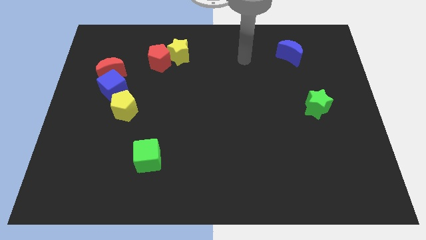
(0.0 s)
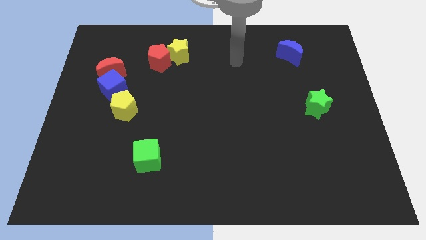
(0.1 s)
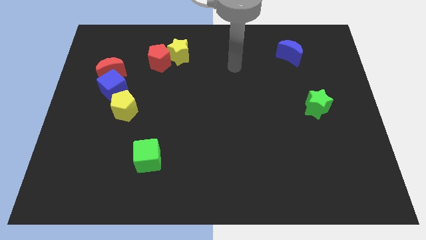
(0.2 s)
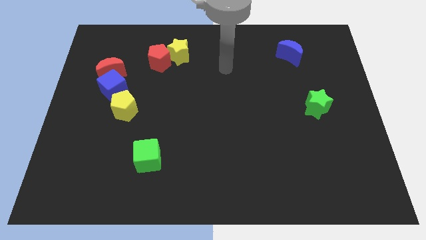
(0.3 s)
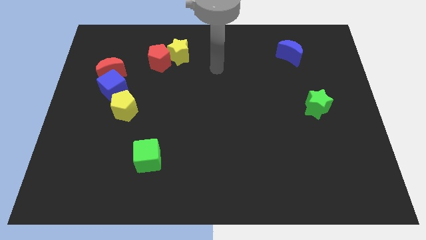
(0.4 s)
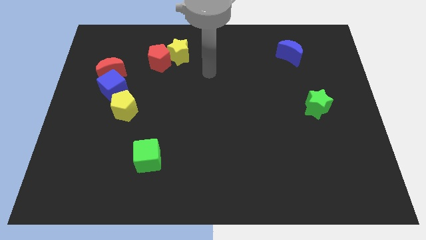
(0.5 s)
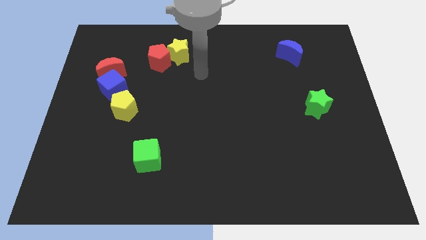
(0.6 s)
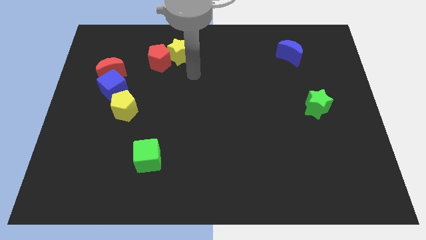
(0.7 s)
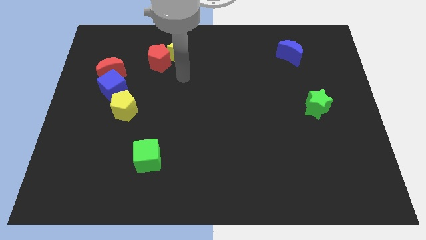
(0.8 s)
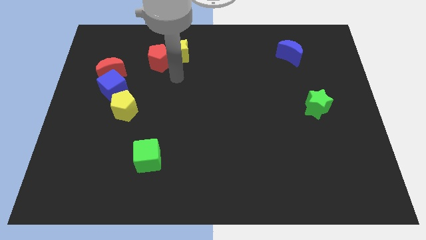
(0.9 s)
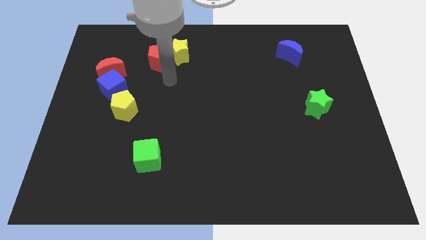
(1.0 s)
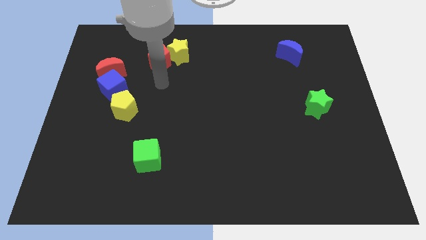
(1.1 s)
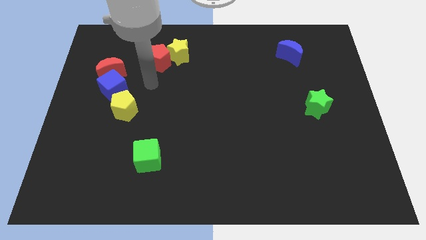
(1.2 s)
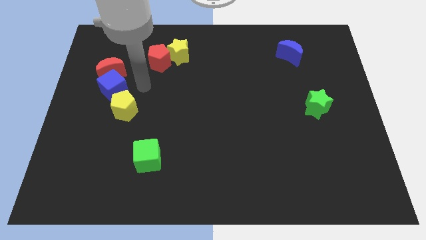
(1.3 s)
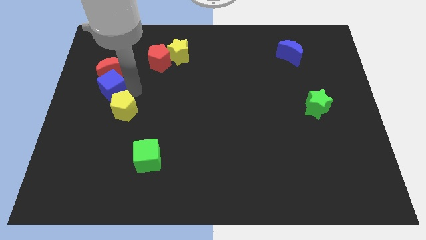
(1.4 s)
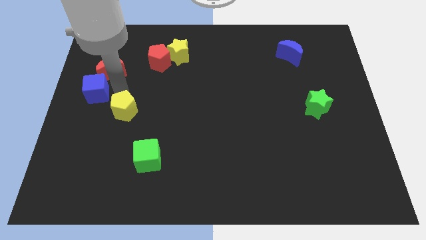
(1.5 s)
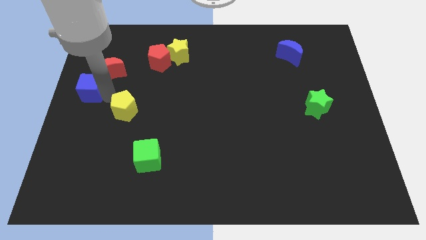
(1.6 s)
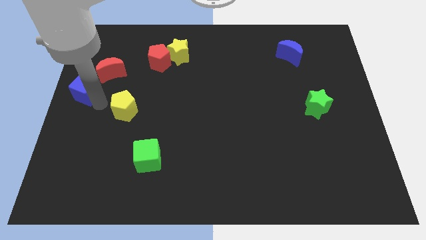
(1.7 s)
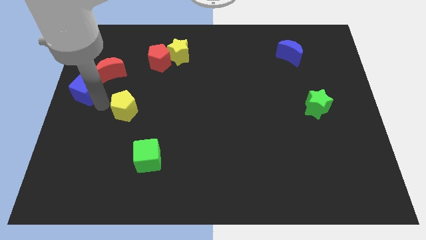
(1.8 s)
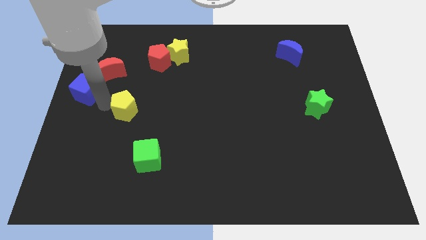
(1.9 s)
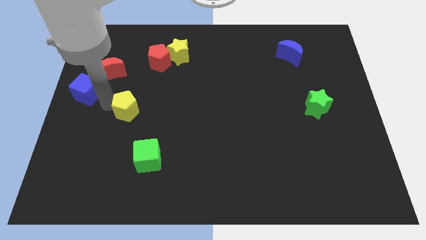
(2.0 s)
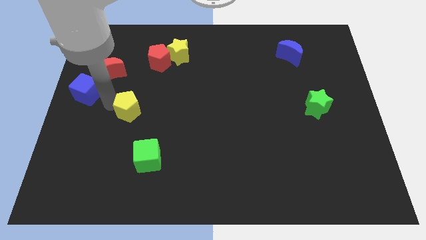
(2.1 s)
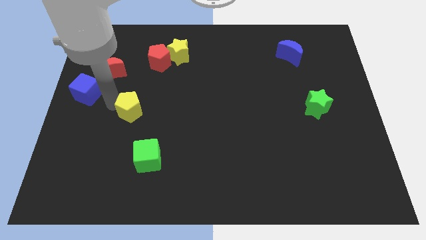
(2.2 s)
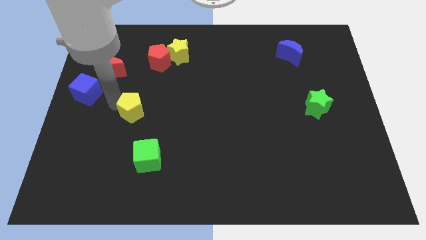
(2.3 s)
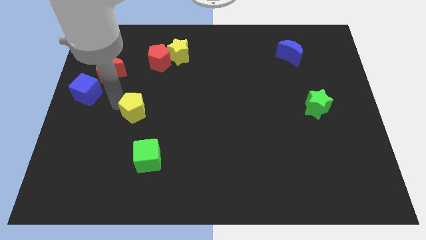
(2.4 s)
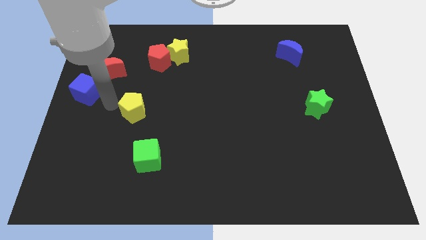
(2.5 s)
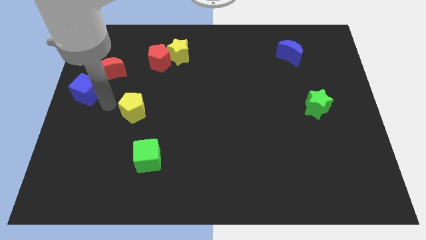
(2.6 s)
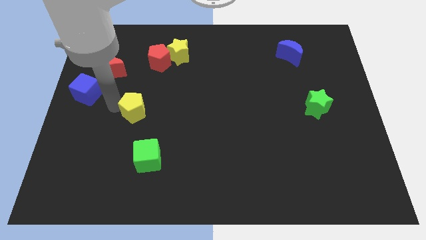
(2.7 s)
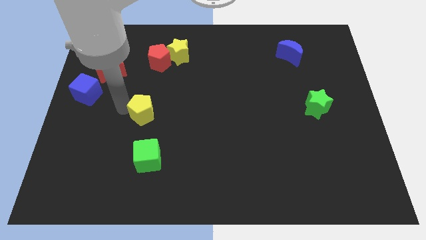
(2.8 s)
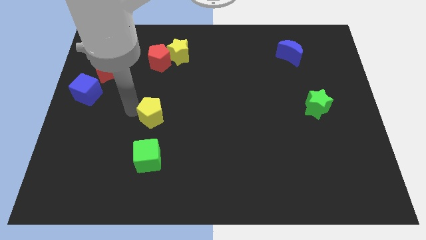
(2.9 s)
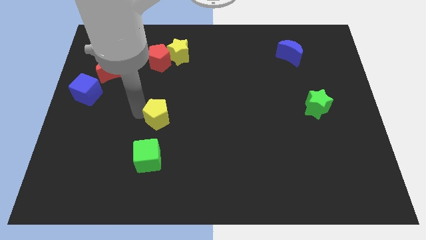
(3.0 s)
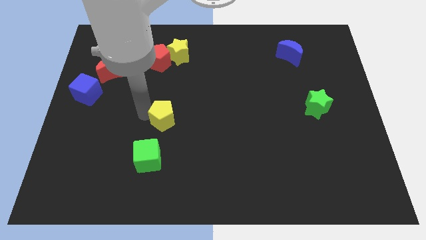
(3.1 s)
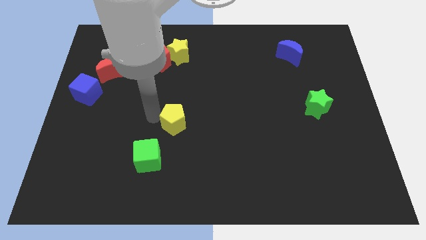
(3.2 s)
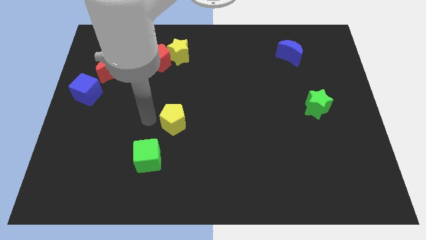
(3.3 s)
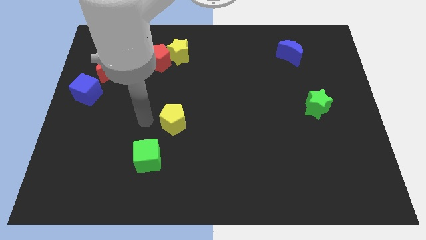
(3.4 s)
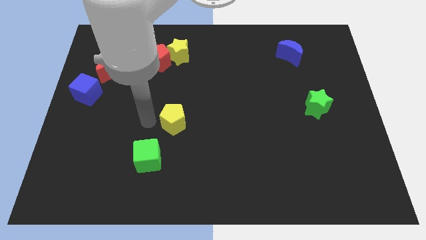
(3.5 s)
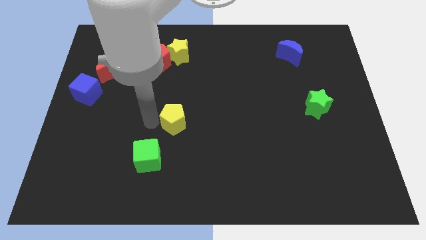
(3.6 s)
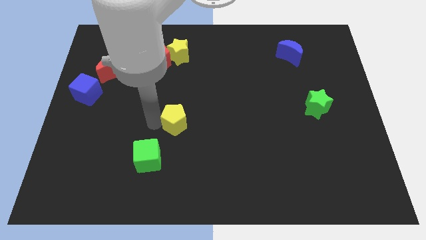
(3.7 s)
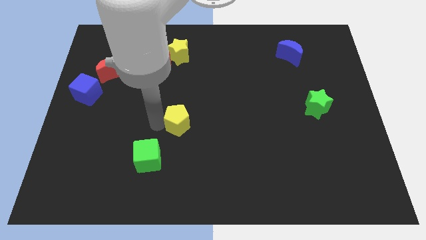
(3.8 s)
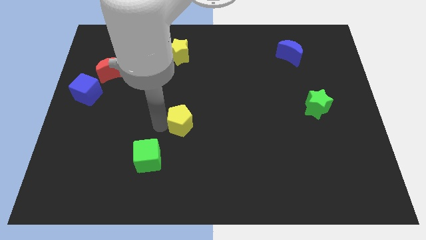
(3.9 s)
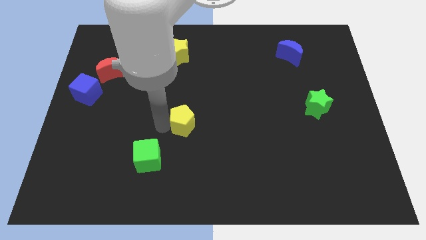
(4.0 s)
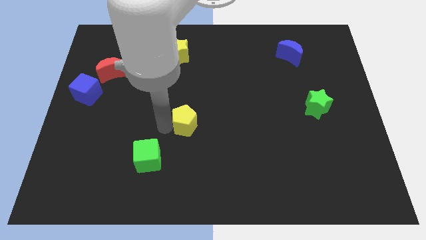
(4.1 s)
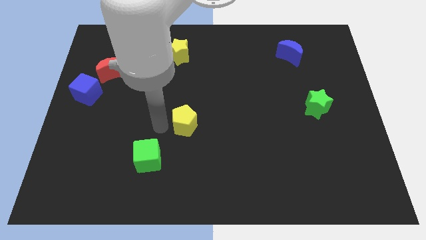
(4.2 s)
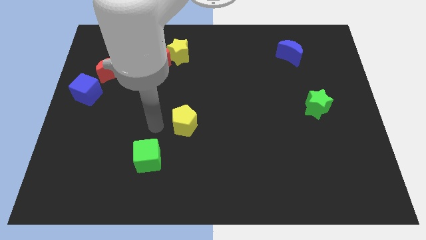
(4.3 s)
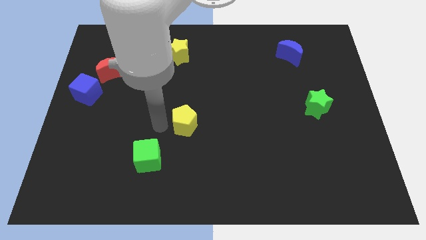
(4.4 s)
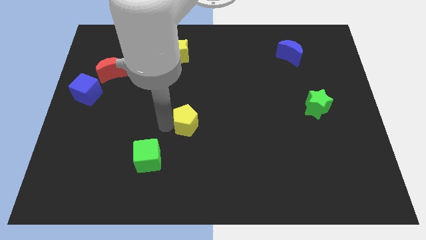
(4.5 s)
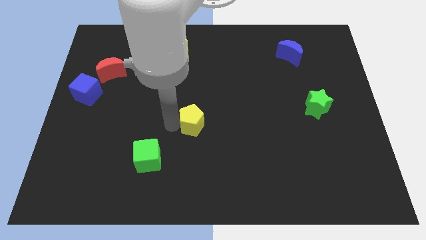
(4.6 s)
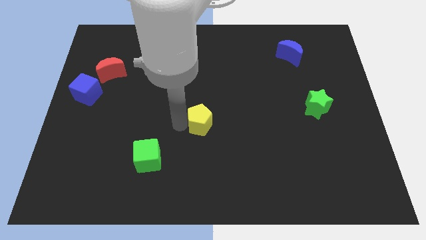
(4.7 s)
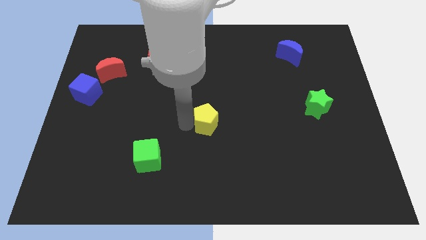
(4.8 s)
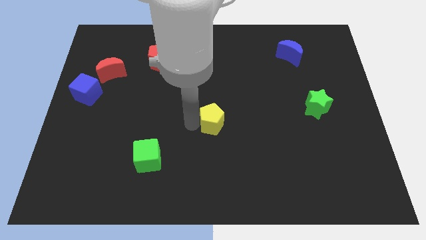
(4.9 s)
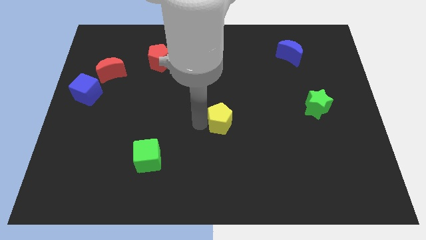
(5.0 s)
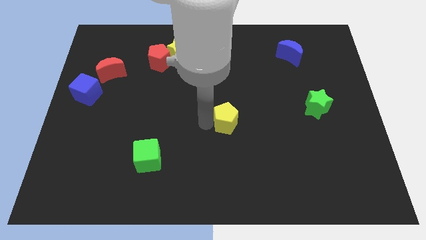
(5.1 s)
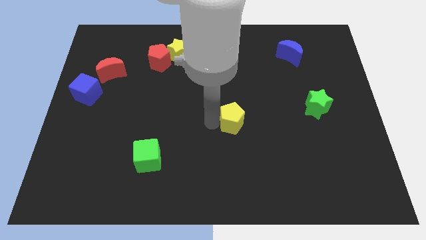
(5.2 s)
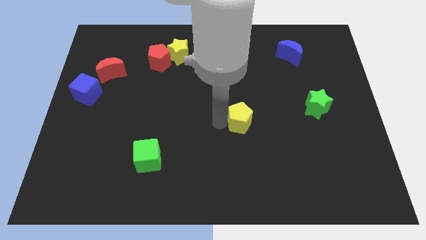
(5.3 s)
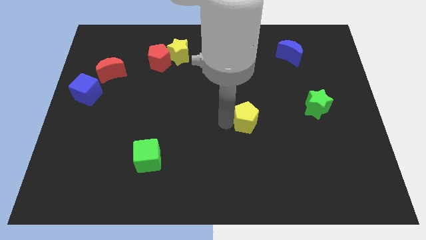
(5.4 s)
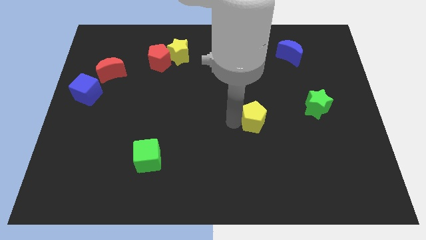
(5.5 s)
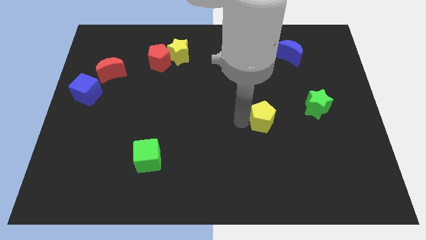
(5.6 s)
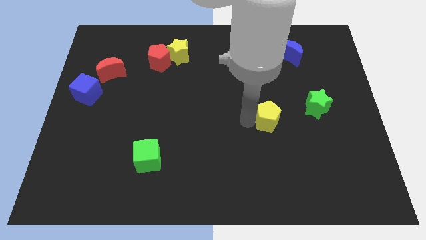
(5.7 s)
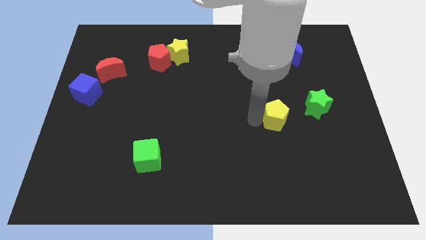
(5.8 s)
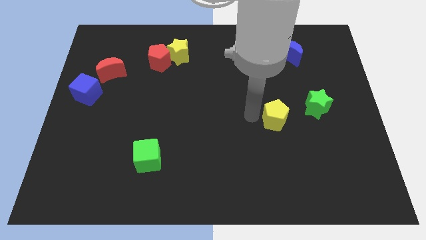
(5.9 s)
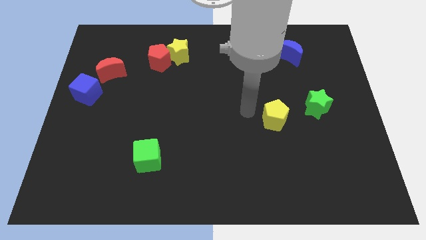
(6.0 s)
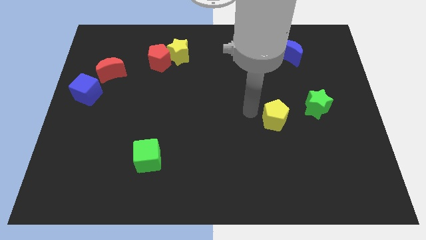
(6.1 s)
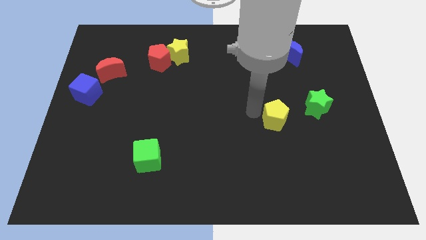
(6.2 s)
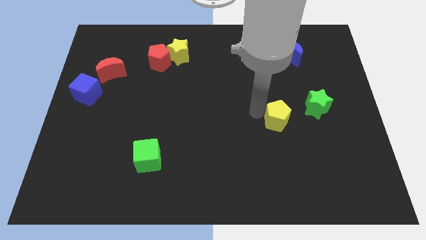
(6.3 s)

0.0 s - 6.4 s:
put the yellow pentagon diagonally down and to the left of the green star

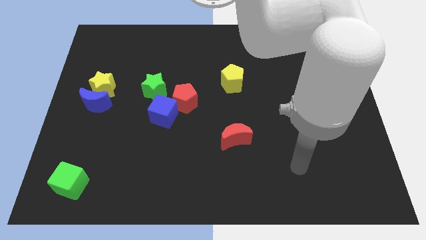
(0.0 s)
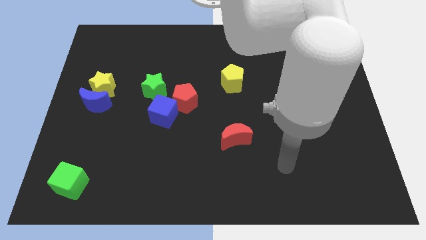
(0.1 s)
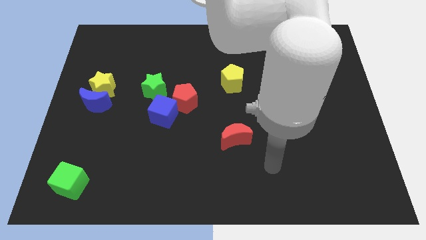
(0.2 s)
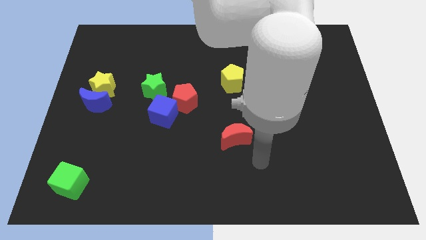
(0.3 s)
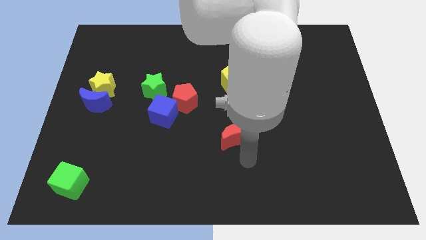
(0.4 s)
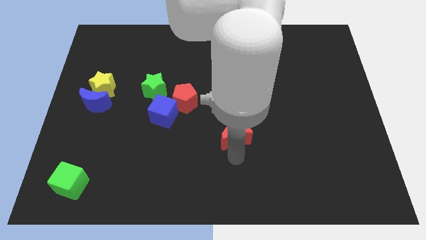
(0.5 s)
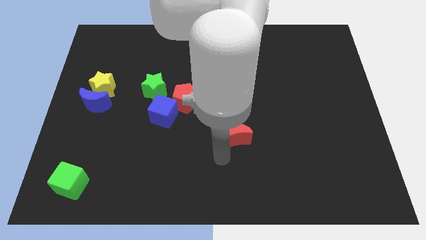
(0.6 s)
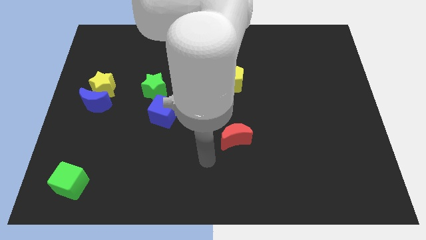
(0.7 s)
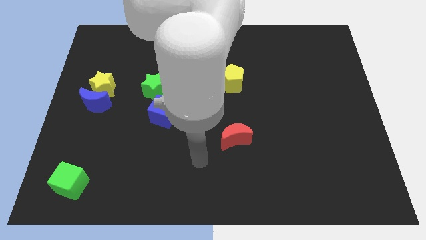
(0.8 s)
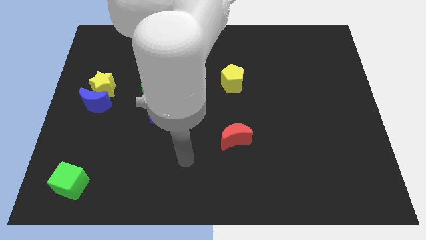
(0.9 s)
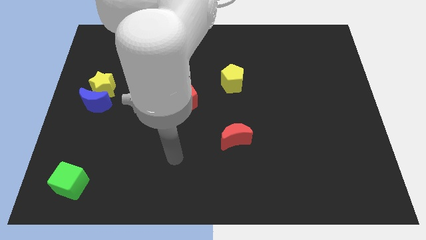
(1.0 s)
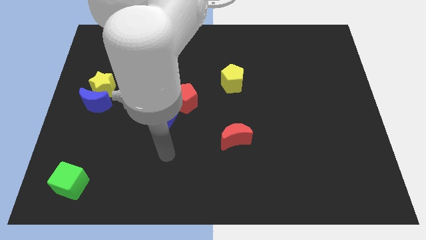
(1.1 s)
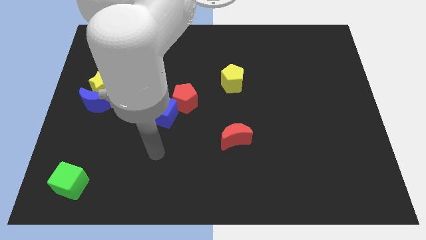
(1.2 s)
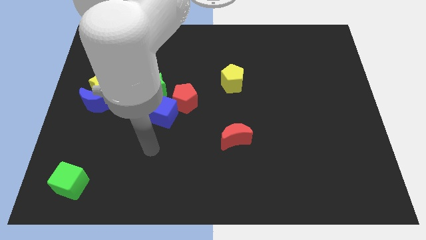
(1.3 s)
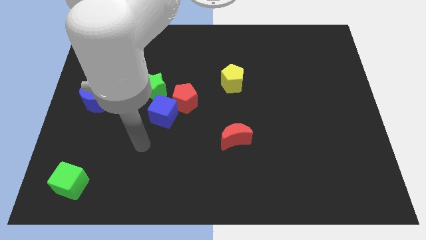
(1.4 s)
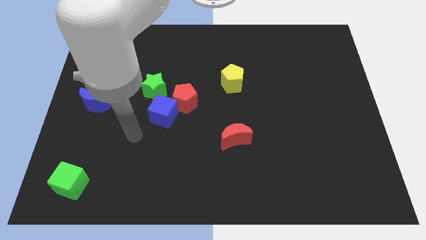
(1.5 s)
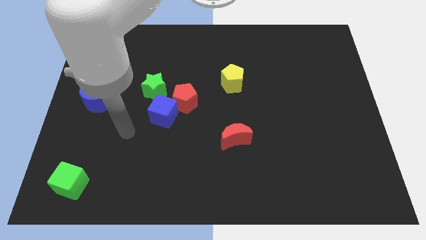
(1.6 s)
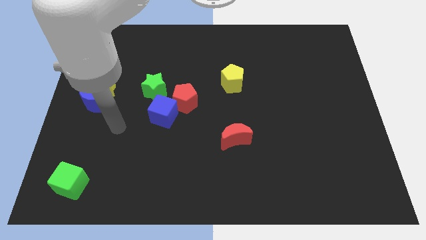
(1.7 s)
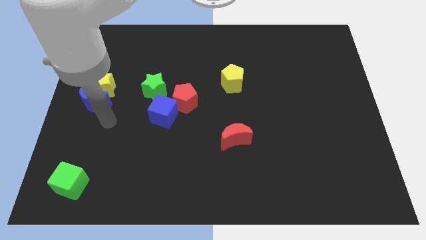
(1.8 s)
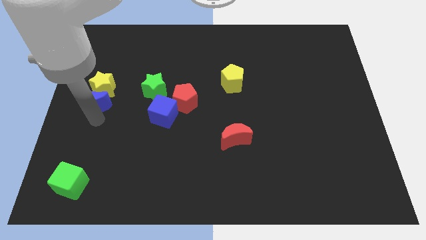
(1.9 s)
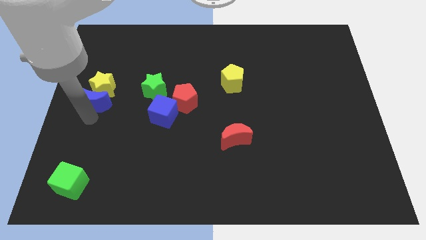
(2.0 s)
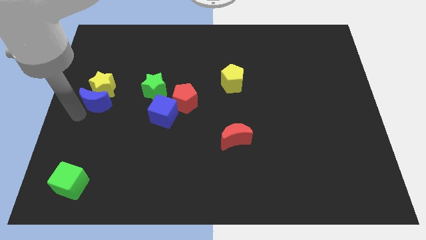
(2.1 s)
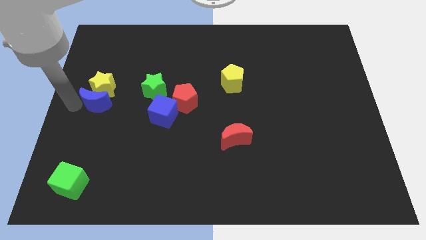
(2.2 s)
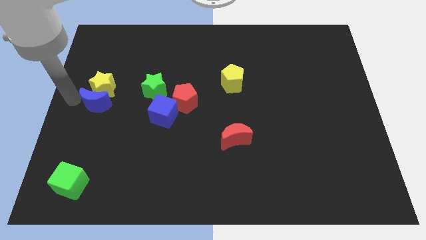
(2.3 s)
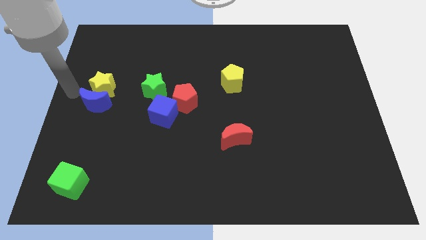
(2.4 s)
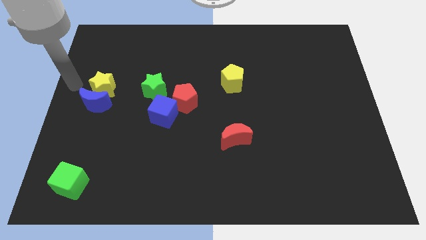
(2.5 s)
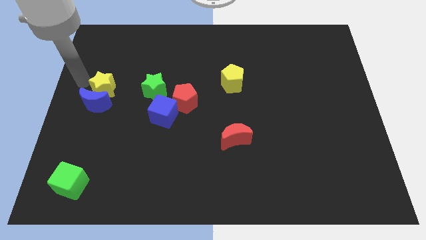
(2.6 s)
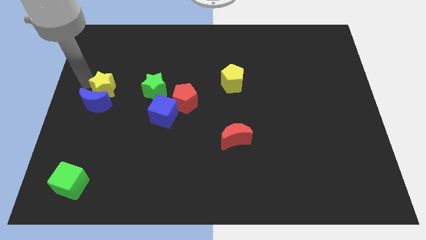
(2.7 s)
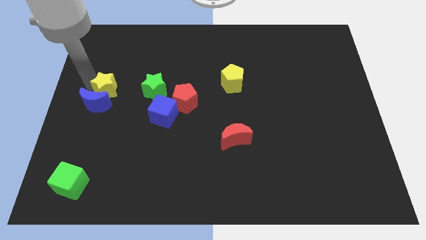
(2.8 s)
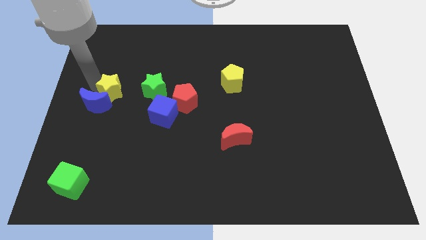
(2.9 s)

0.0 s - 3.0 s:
move the yellow star to the right side of the blue moon
